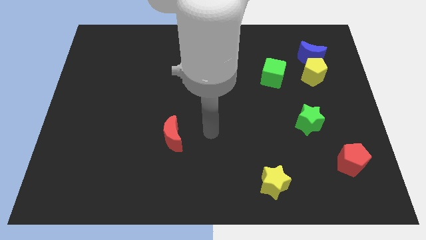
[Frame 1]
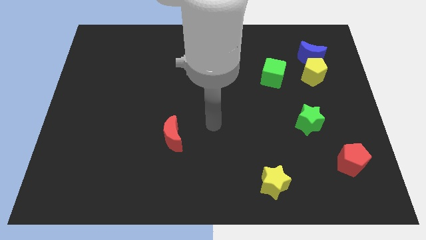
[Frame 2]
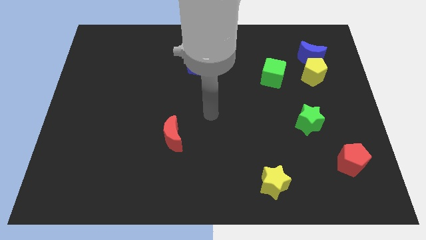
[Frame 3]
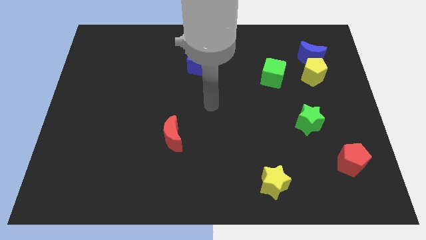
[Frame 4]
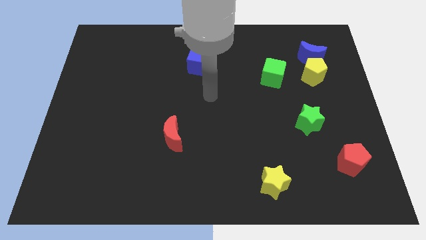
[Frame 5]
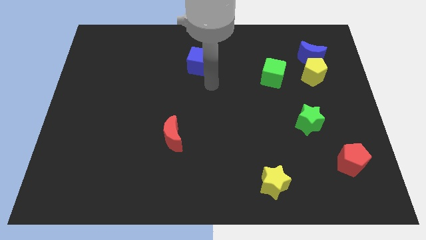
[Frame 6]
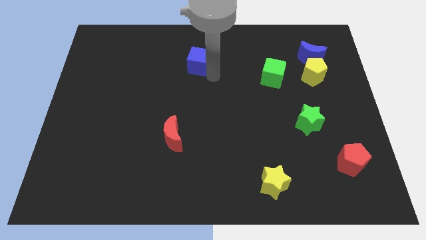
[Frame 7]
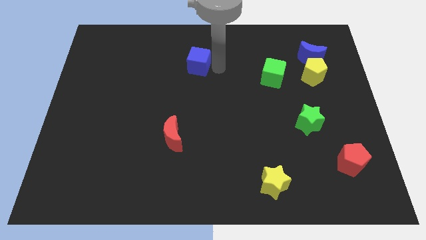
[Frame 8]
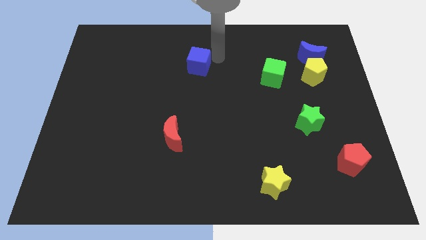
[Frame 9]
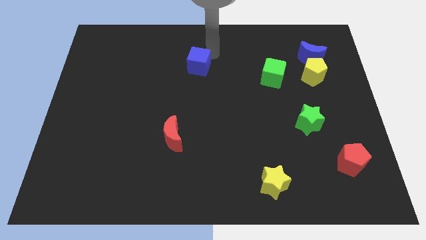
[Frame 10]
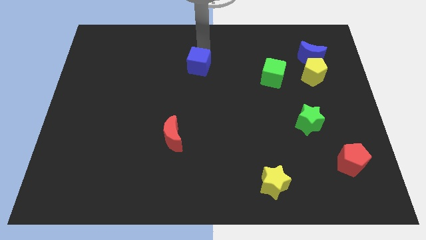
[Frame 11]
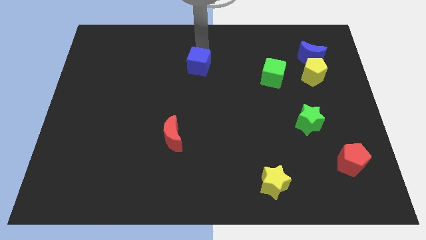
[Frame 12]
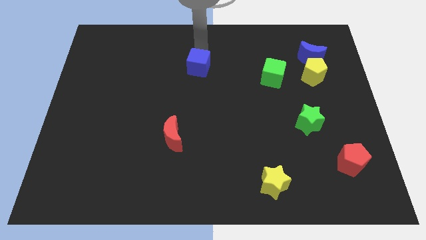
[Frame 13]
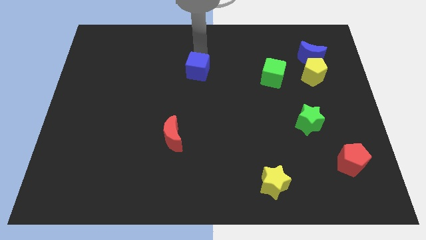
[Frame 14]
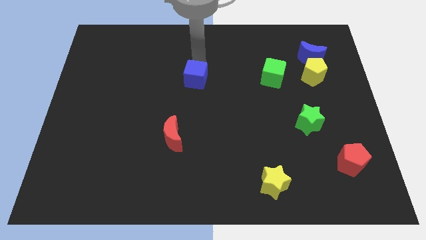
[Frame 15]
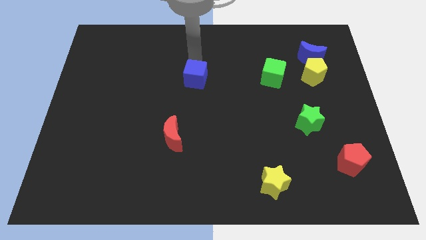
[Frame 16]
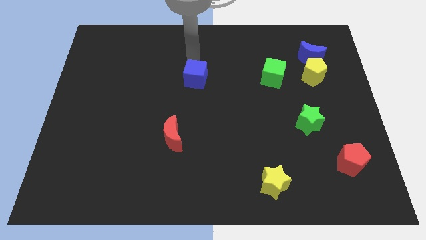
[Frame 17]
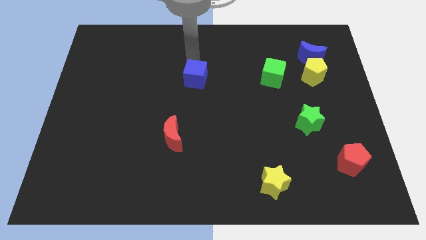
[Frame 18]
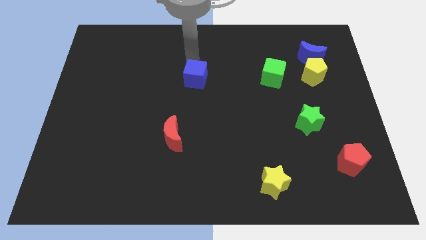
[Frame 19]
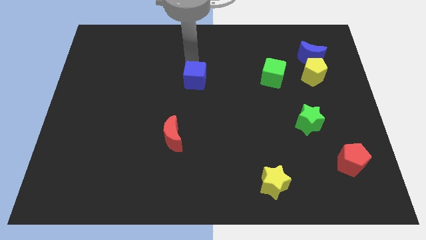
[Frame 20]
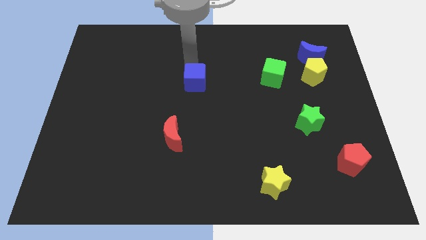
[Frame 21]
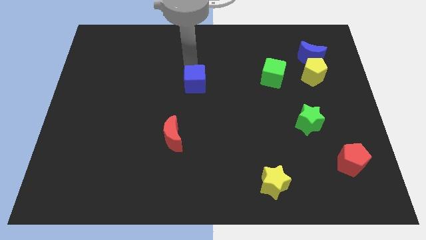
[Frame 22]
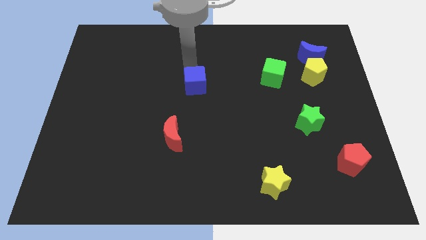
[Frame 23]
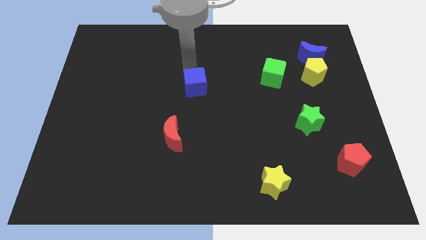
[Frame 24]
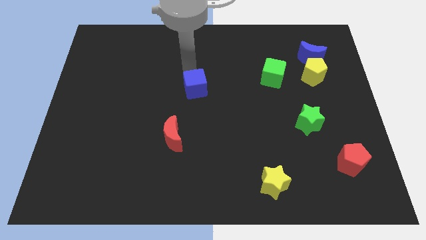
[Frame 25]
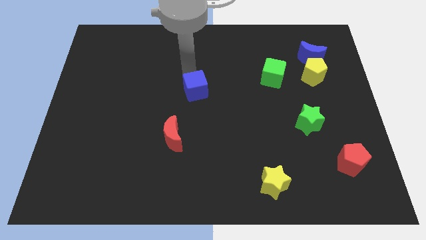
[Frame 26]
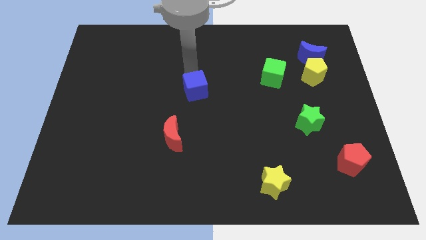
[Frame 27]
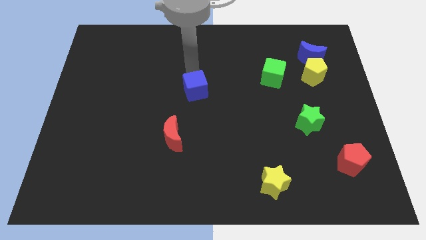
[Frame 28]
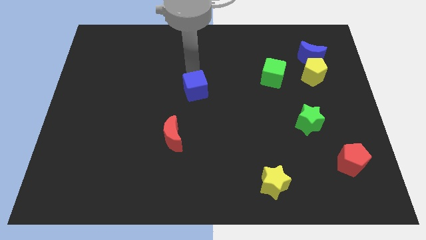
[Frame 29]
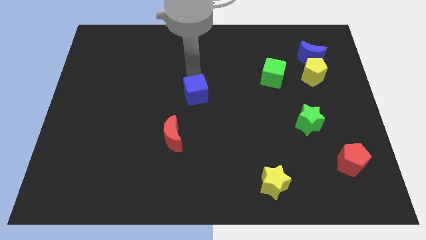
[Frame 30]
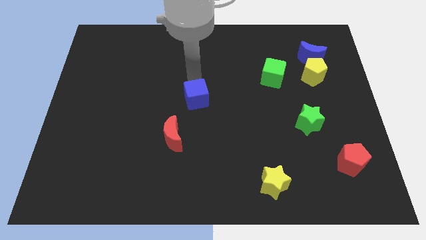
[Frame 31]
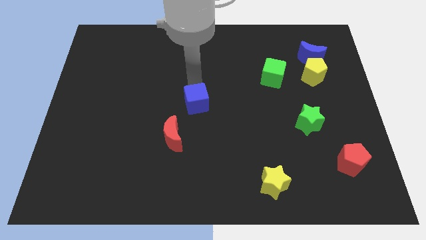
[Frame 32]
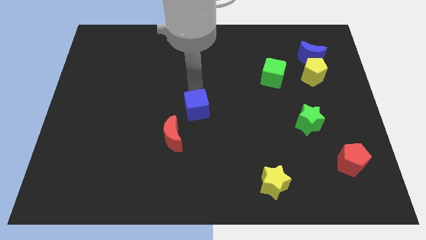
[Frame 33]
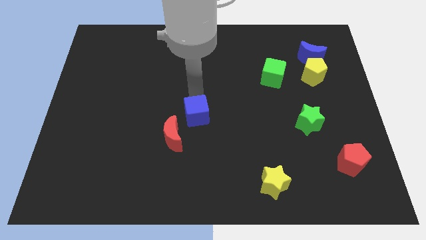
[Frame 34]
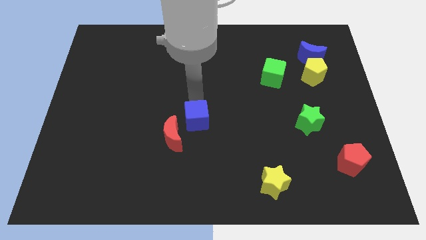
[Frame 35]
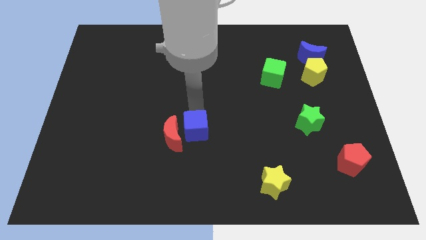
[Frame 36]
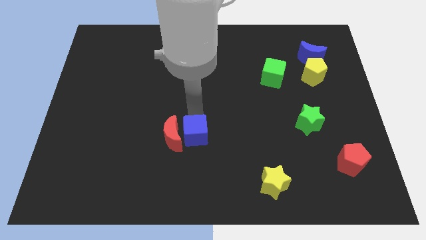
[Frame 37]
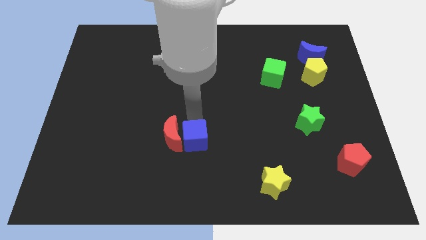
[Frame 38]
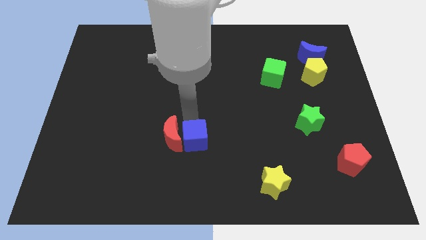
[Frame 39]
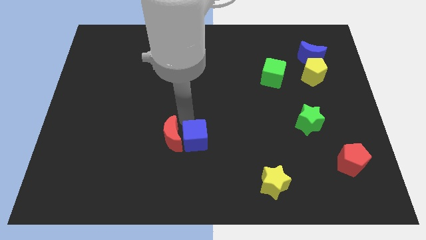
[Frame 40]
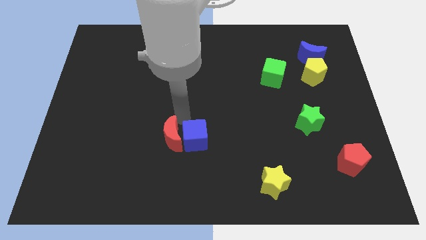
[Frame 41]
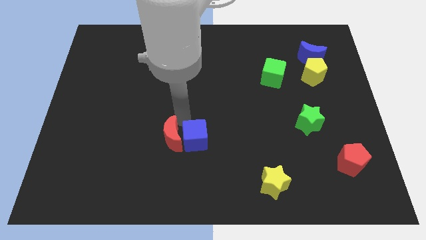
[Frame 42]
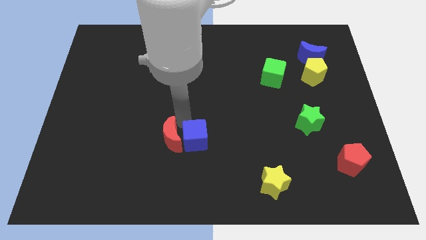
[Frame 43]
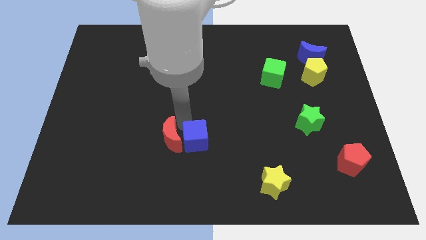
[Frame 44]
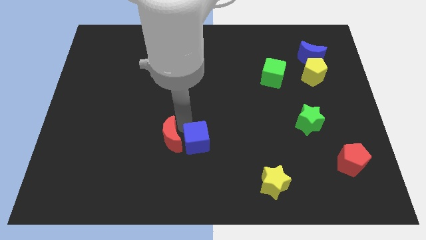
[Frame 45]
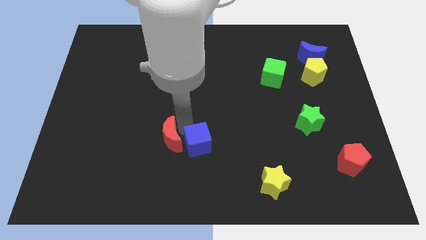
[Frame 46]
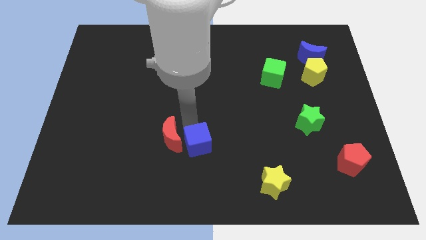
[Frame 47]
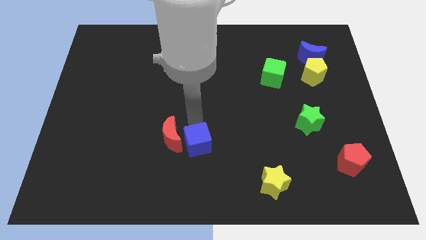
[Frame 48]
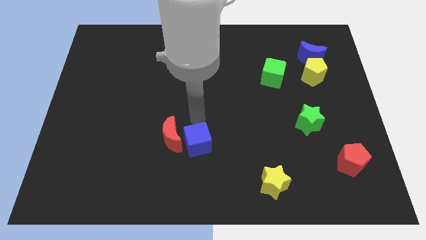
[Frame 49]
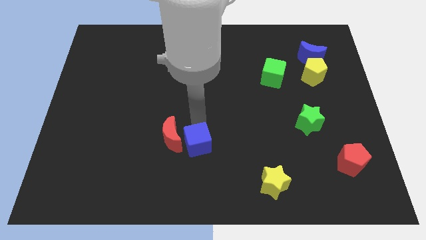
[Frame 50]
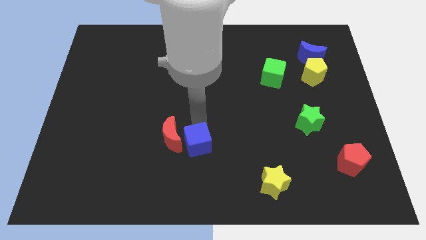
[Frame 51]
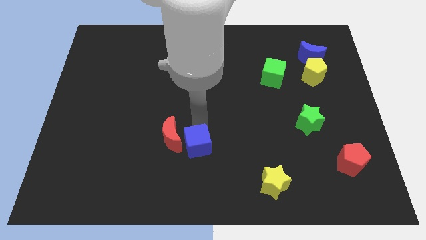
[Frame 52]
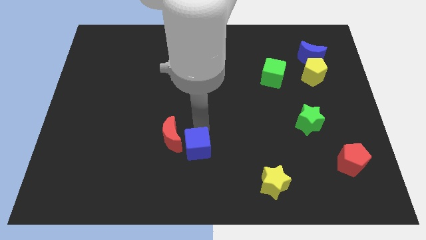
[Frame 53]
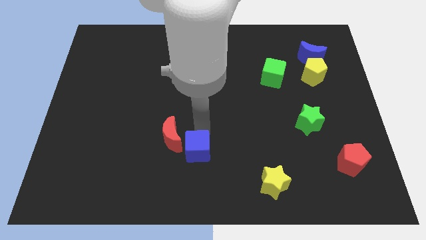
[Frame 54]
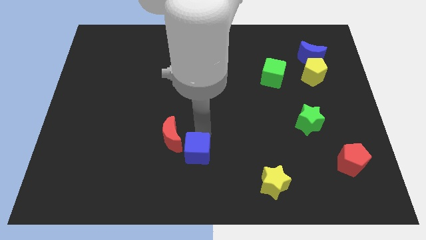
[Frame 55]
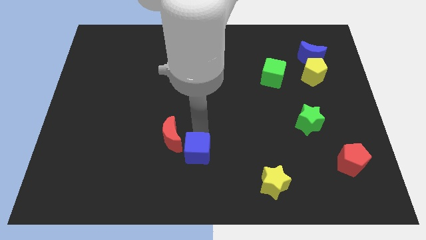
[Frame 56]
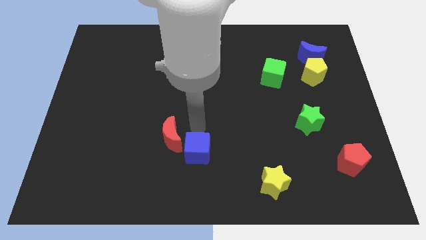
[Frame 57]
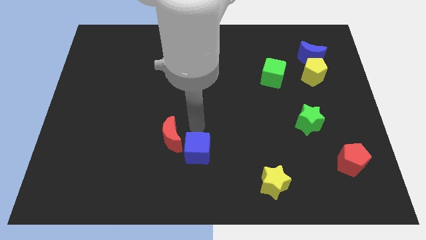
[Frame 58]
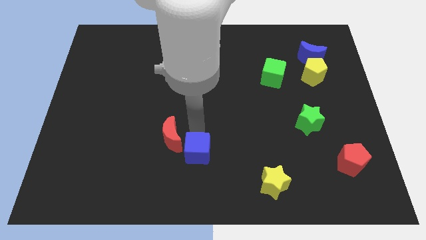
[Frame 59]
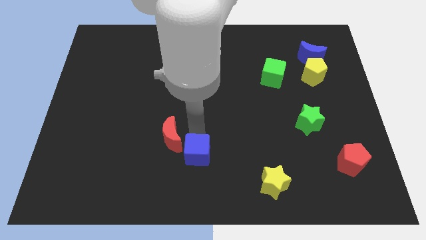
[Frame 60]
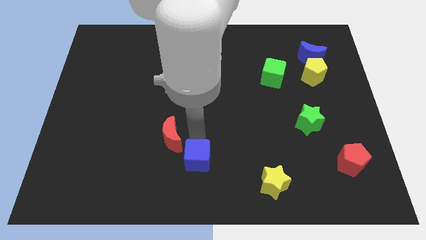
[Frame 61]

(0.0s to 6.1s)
slide the blue cube to the bottom
